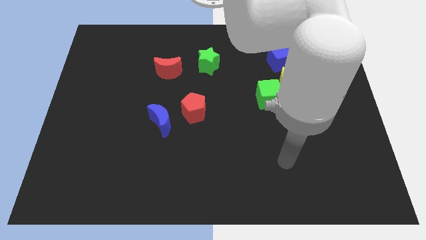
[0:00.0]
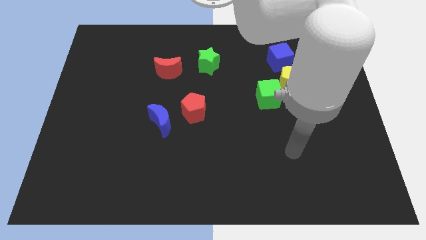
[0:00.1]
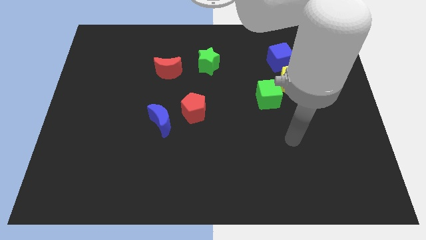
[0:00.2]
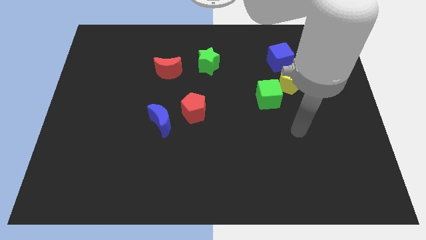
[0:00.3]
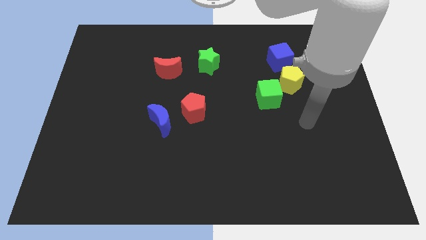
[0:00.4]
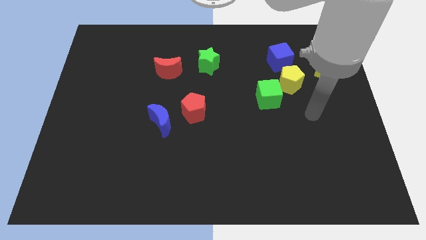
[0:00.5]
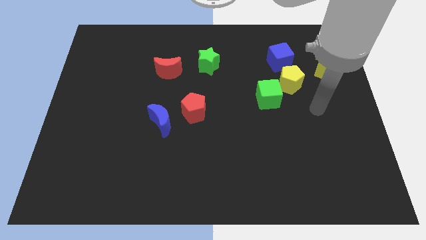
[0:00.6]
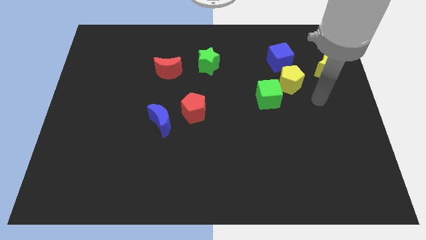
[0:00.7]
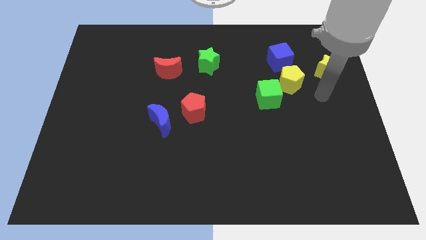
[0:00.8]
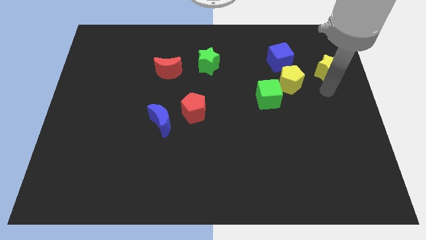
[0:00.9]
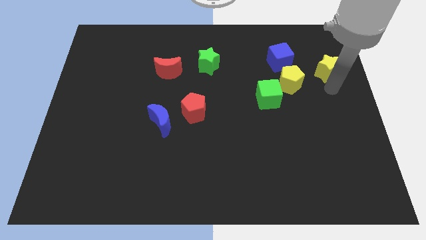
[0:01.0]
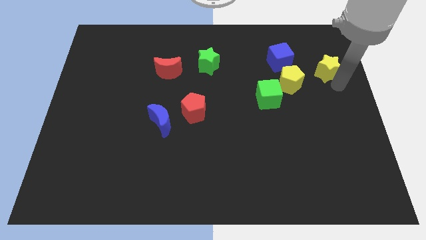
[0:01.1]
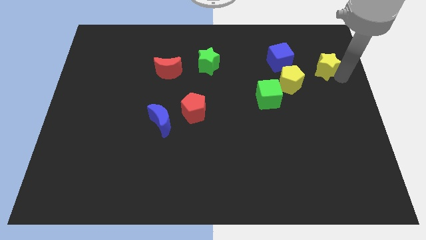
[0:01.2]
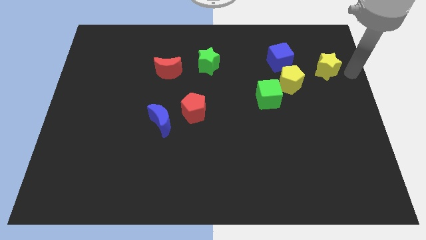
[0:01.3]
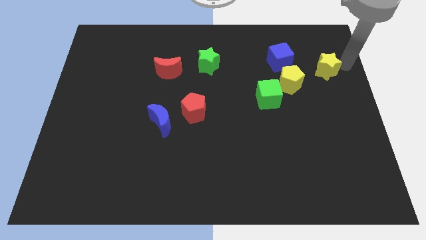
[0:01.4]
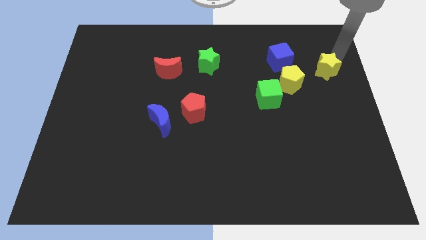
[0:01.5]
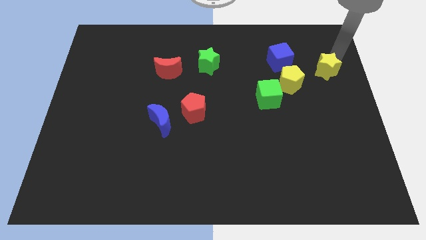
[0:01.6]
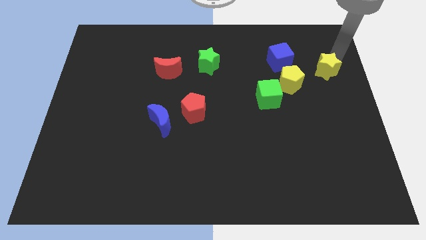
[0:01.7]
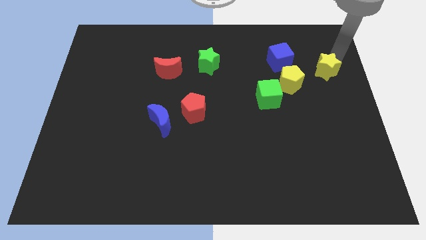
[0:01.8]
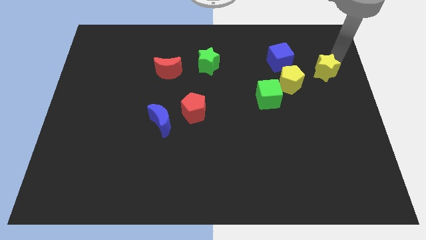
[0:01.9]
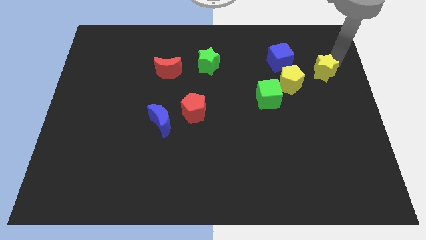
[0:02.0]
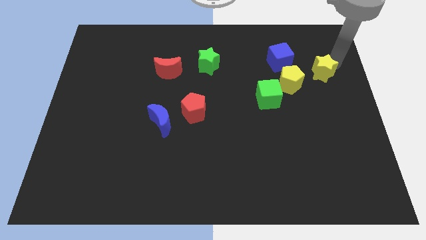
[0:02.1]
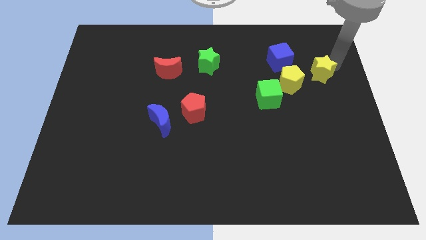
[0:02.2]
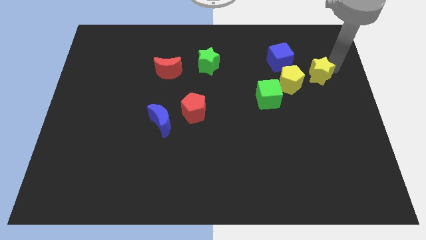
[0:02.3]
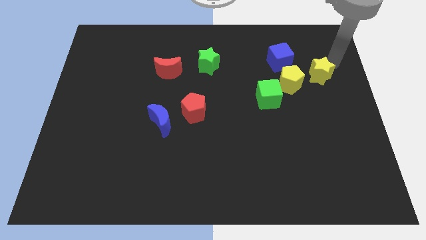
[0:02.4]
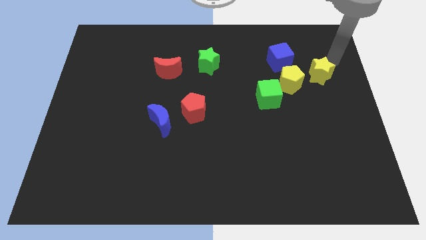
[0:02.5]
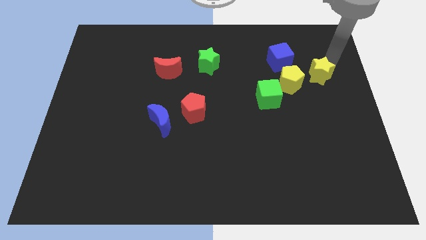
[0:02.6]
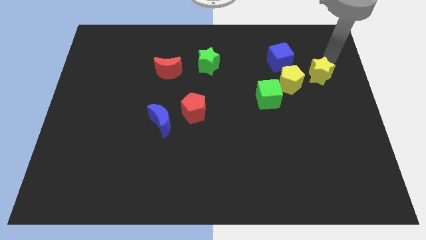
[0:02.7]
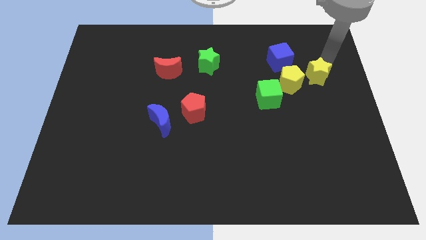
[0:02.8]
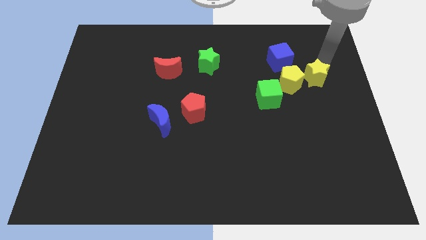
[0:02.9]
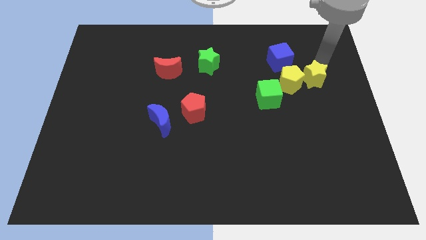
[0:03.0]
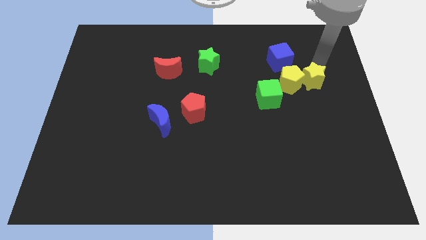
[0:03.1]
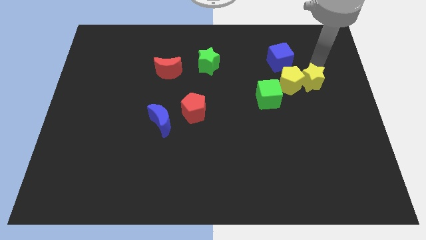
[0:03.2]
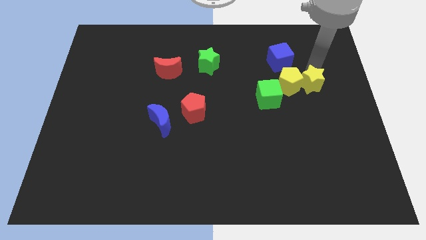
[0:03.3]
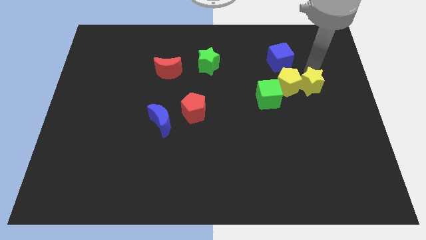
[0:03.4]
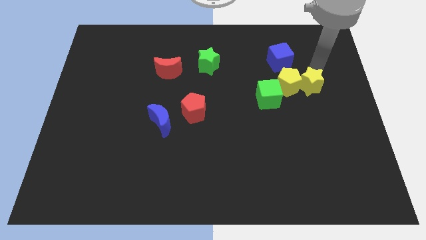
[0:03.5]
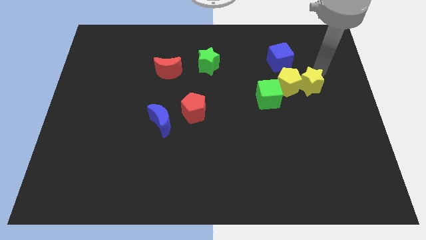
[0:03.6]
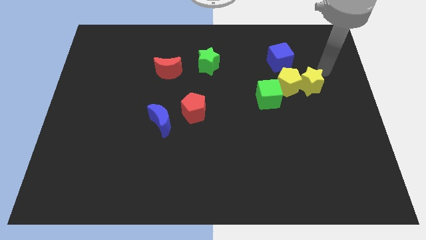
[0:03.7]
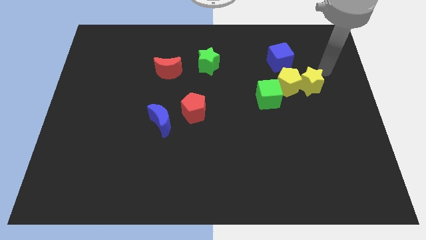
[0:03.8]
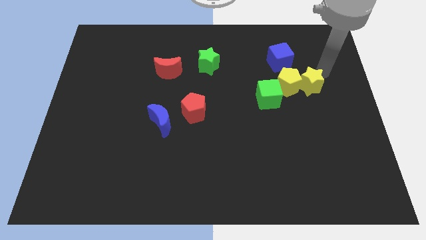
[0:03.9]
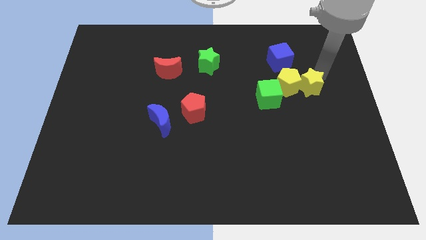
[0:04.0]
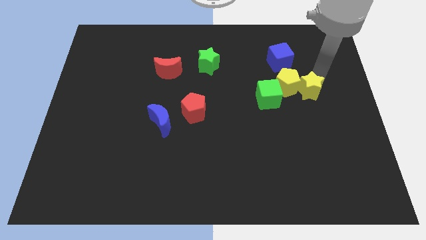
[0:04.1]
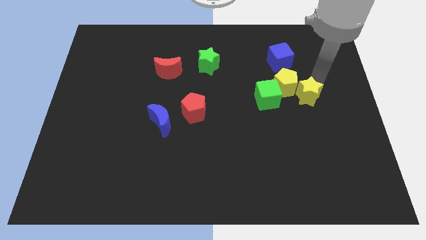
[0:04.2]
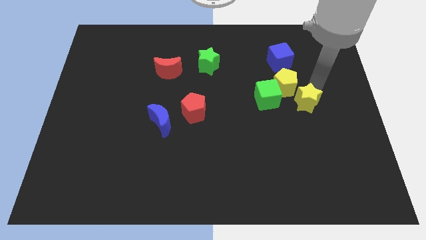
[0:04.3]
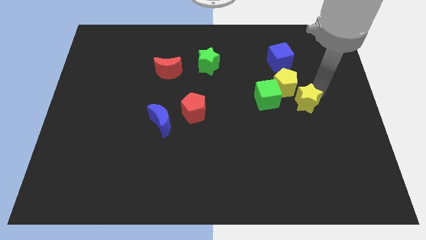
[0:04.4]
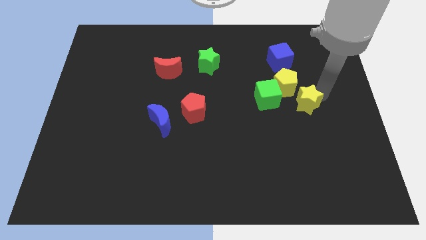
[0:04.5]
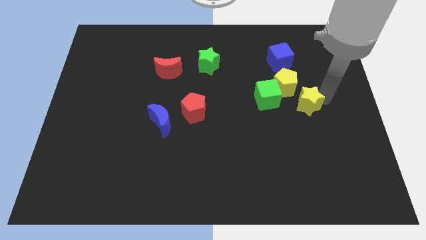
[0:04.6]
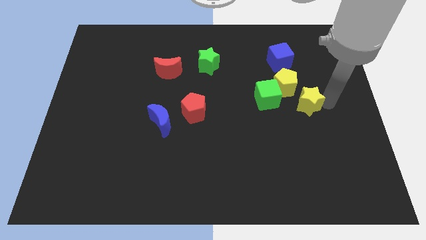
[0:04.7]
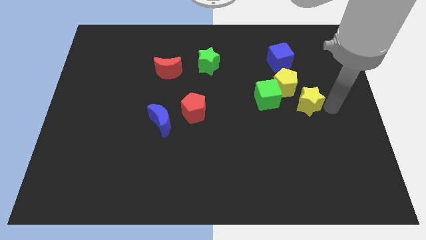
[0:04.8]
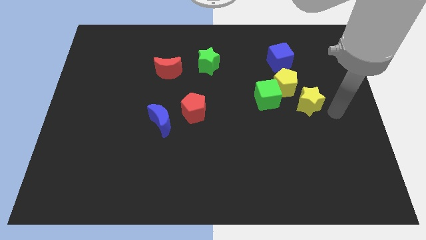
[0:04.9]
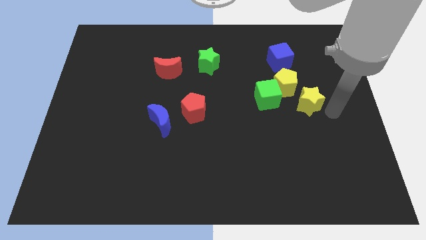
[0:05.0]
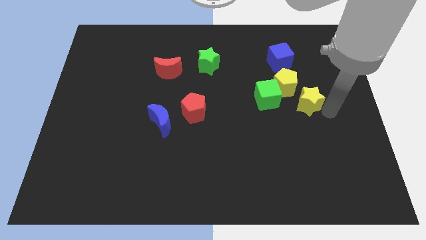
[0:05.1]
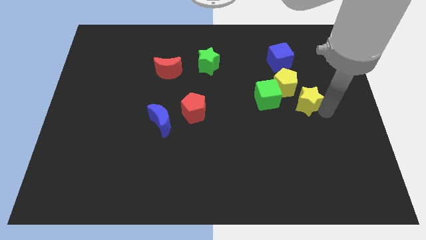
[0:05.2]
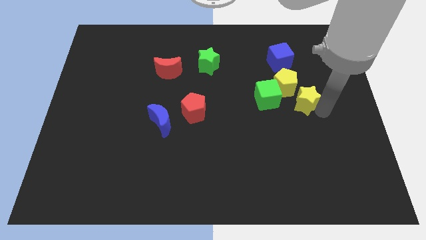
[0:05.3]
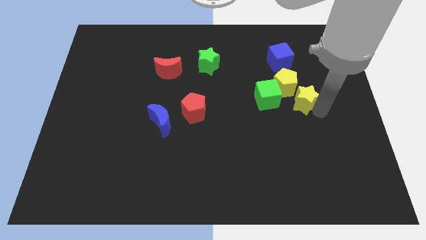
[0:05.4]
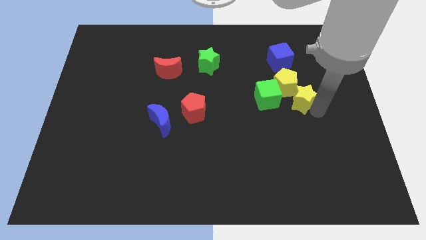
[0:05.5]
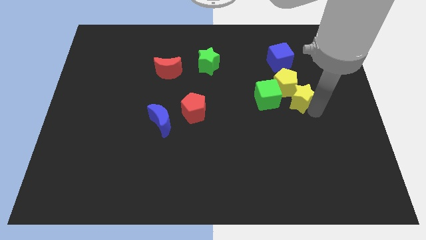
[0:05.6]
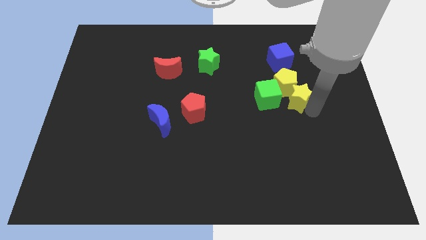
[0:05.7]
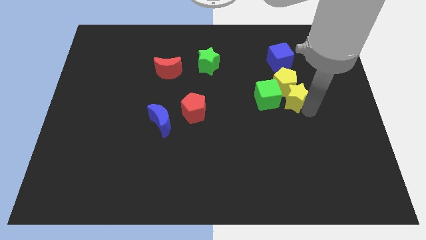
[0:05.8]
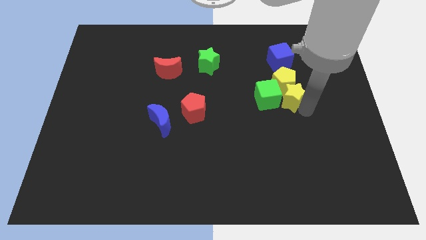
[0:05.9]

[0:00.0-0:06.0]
put the yellow star close to the green cube

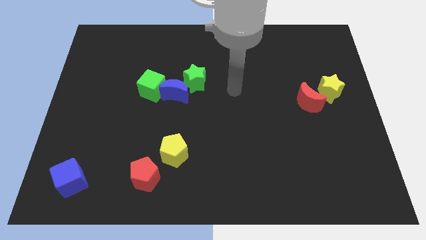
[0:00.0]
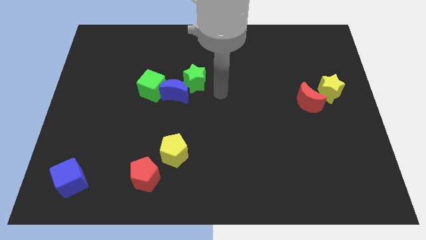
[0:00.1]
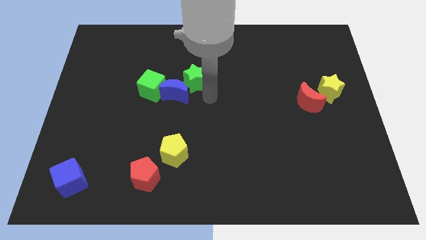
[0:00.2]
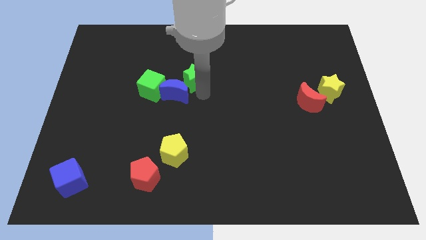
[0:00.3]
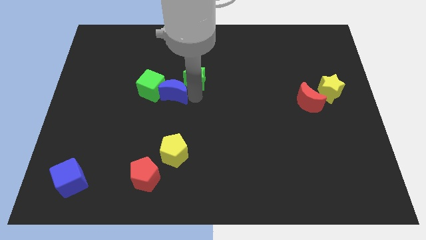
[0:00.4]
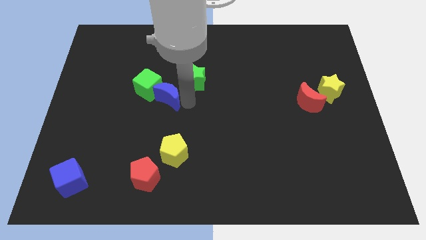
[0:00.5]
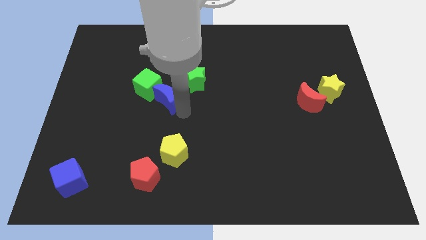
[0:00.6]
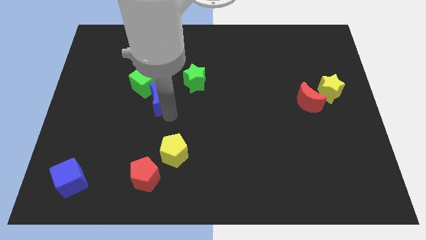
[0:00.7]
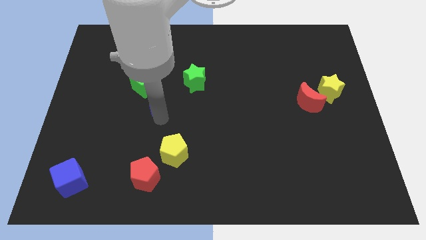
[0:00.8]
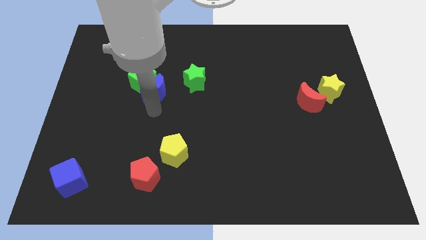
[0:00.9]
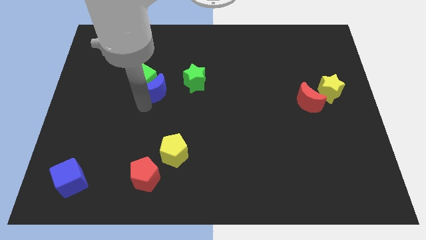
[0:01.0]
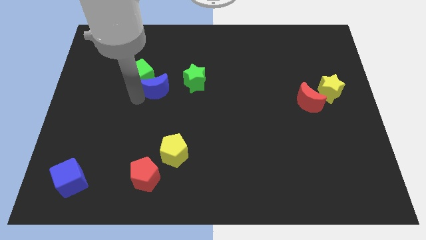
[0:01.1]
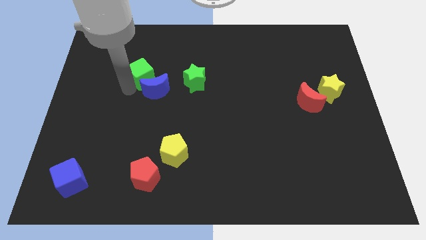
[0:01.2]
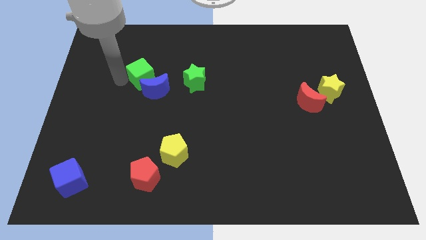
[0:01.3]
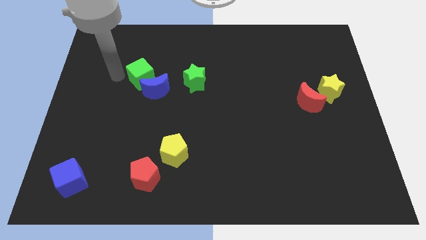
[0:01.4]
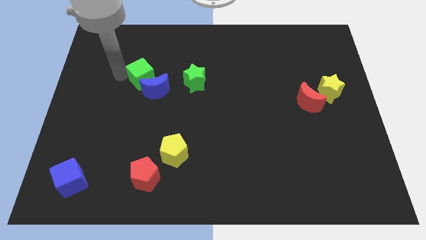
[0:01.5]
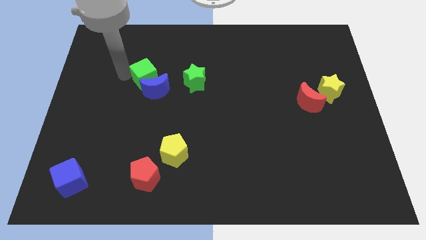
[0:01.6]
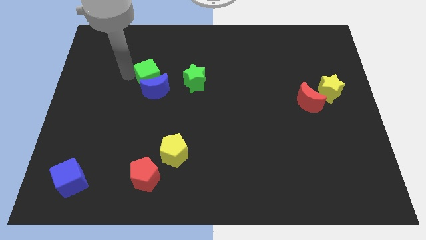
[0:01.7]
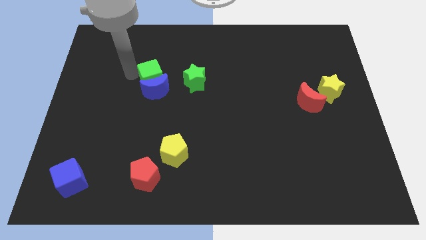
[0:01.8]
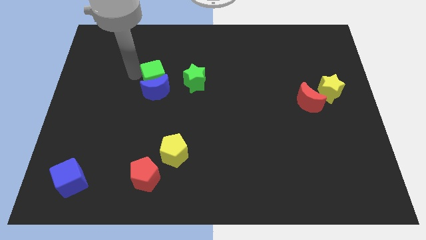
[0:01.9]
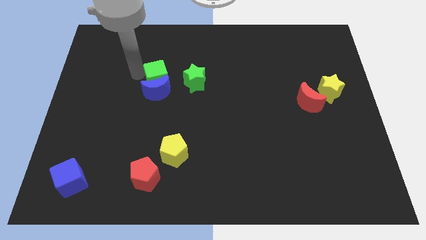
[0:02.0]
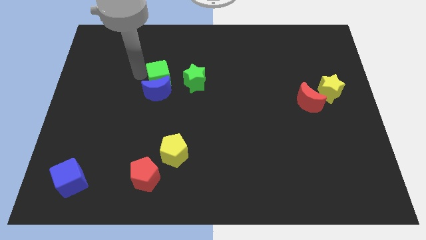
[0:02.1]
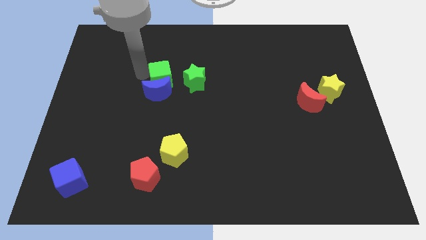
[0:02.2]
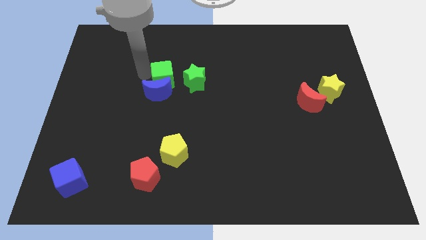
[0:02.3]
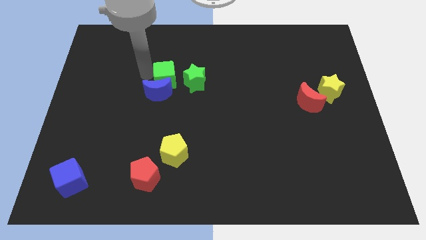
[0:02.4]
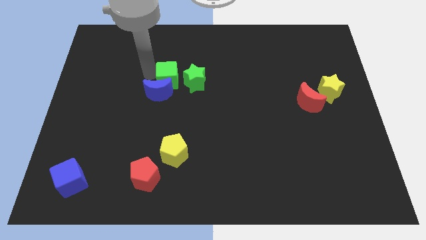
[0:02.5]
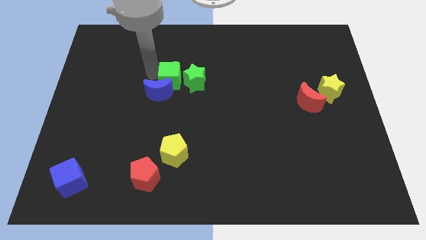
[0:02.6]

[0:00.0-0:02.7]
move the green cube towards the green star
